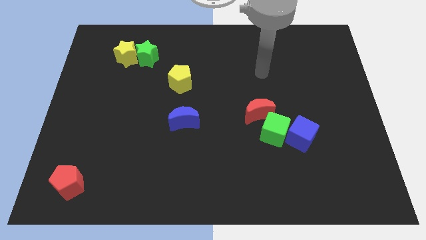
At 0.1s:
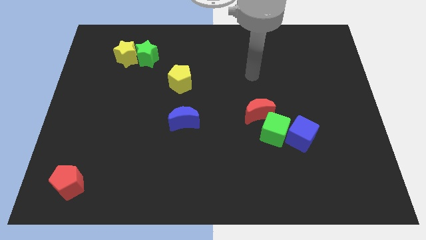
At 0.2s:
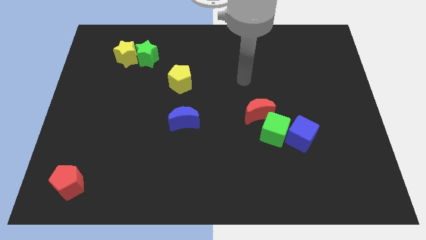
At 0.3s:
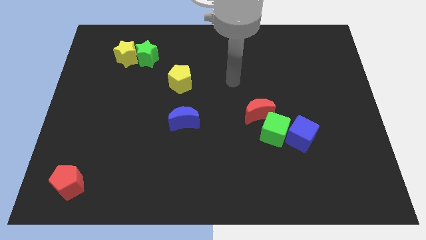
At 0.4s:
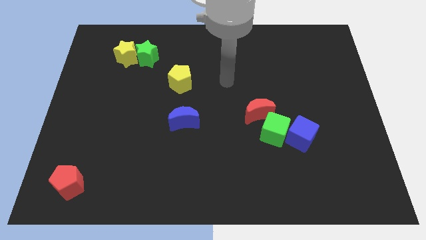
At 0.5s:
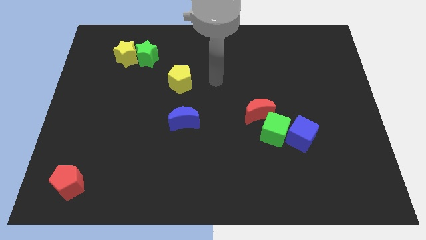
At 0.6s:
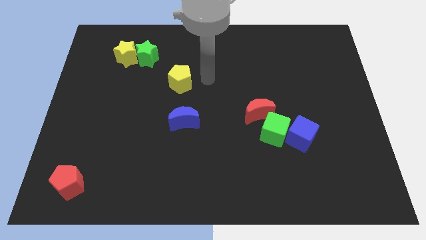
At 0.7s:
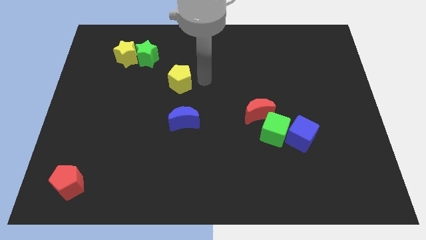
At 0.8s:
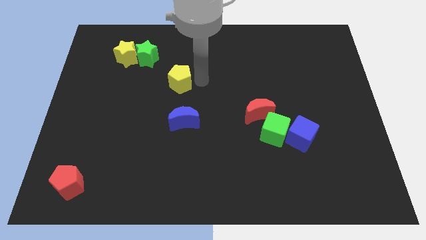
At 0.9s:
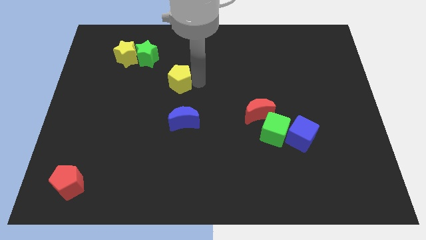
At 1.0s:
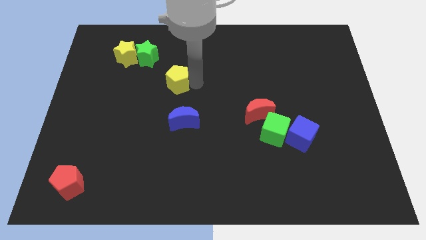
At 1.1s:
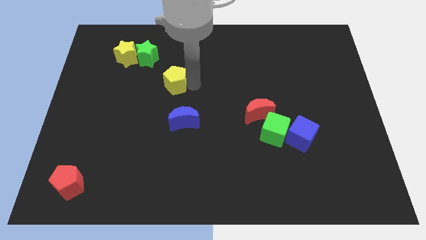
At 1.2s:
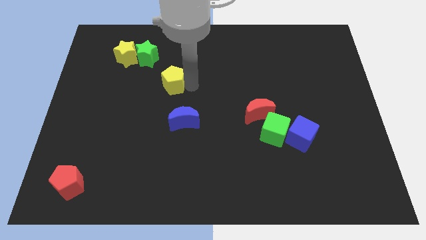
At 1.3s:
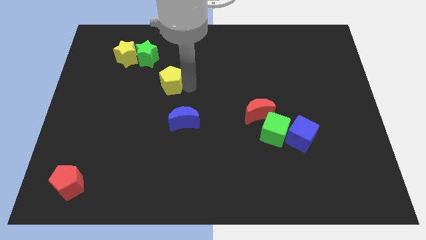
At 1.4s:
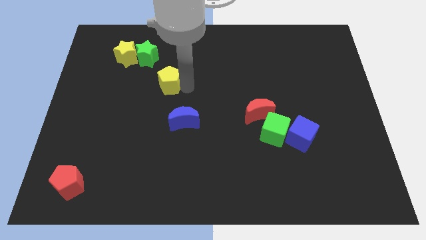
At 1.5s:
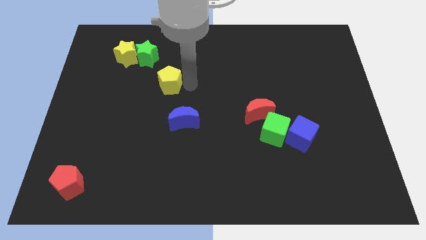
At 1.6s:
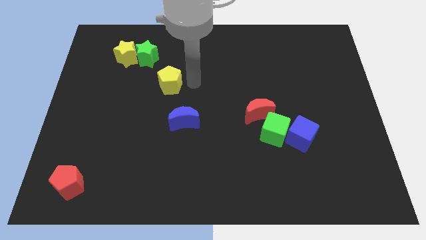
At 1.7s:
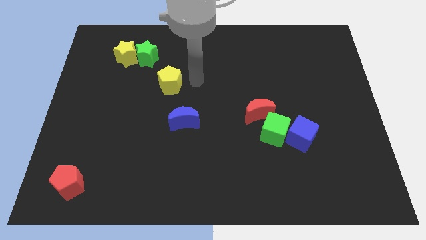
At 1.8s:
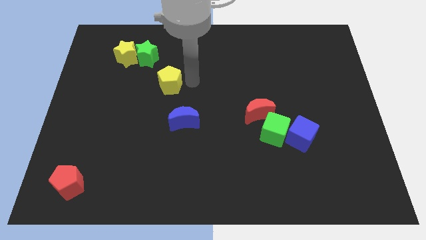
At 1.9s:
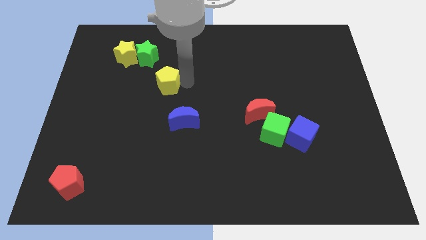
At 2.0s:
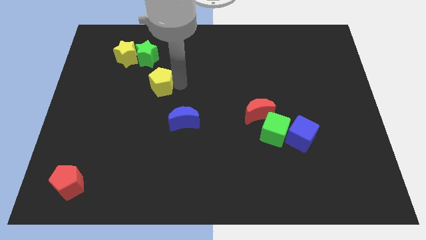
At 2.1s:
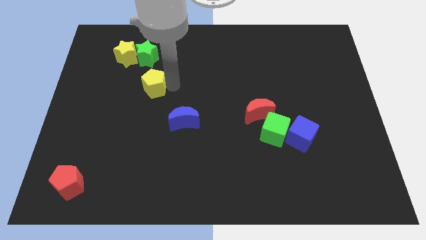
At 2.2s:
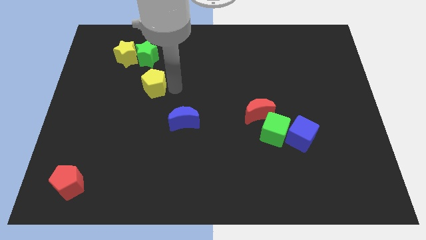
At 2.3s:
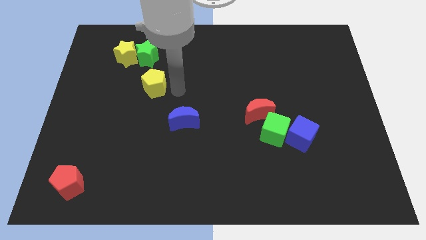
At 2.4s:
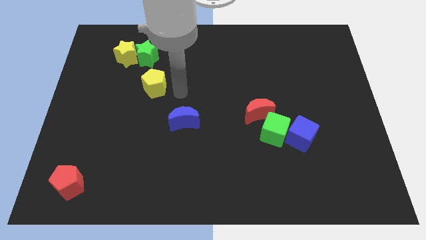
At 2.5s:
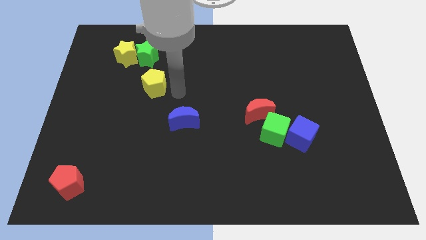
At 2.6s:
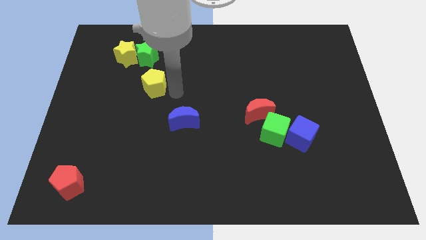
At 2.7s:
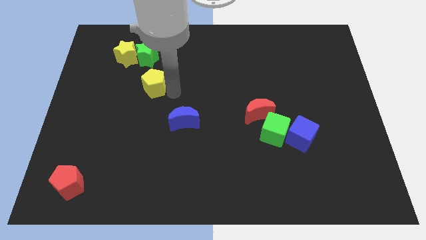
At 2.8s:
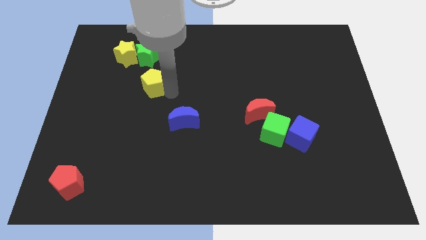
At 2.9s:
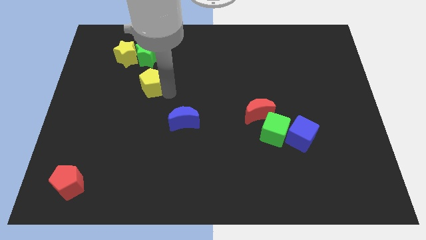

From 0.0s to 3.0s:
slightly push the yellow pentagon left

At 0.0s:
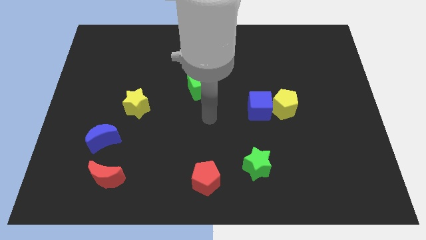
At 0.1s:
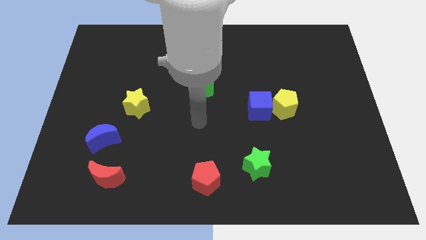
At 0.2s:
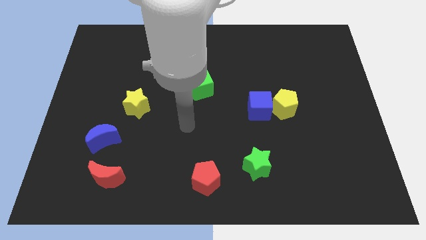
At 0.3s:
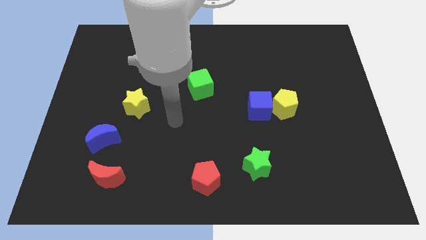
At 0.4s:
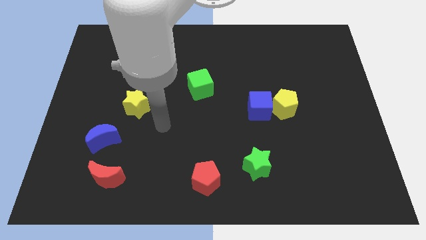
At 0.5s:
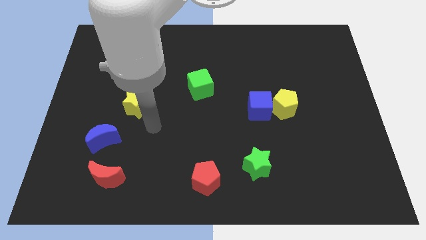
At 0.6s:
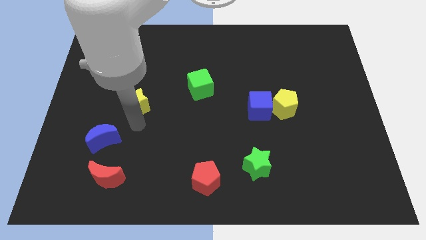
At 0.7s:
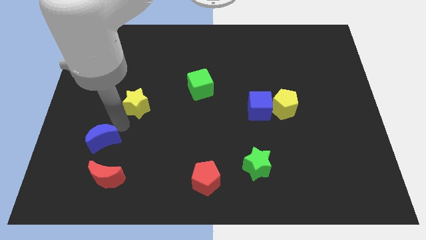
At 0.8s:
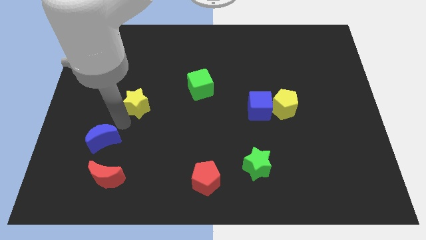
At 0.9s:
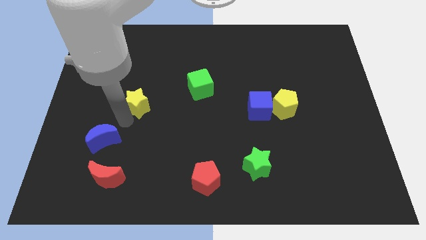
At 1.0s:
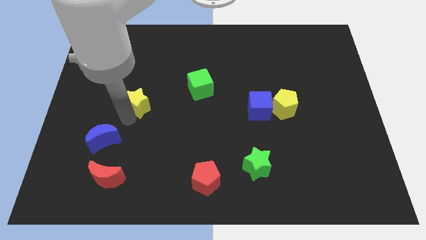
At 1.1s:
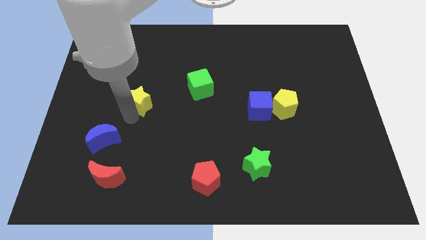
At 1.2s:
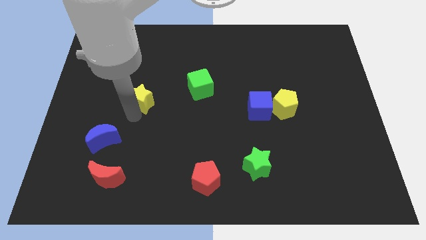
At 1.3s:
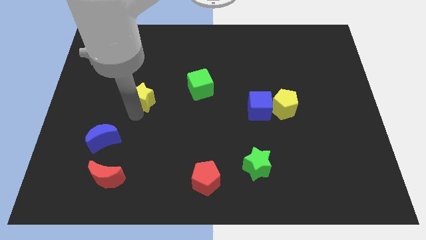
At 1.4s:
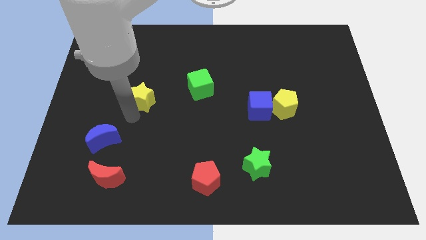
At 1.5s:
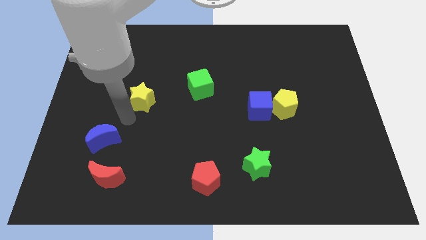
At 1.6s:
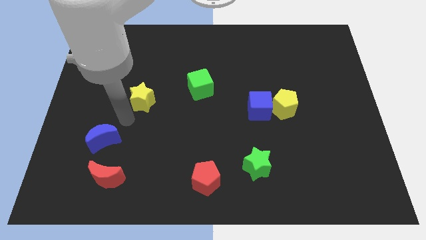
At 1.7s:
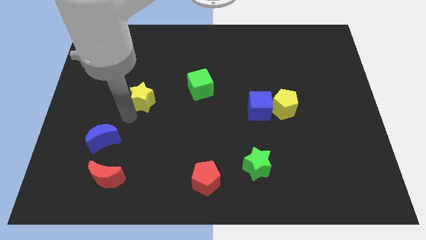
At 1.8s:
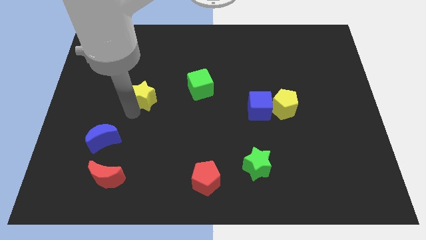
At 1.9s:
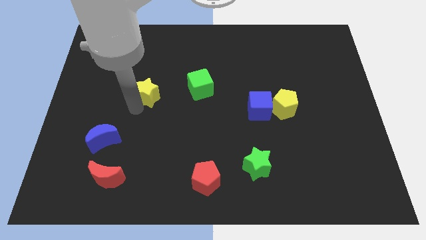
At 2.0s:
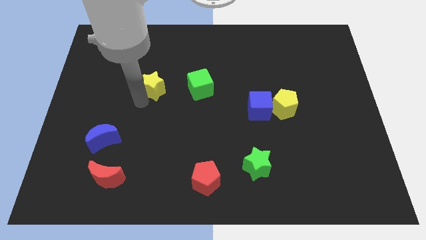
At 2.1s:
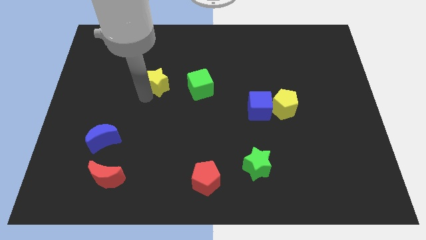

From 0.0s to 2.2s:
push the yellow star upwards and to the right diagonally a little bit

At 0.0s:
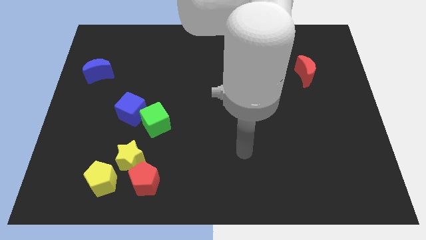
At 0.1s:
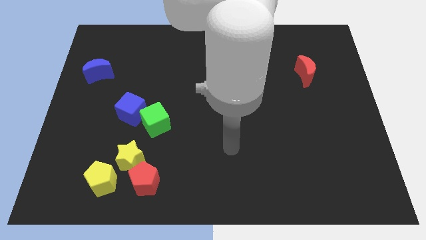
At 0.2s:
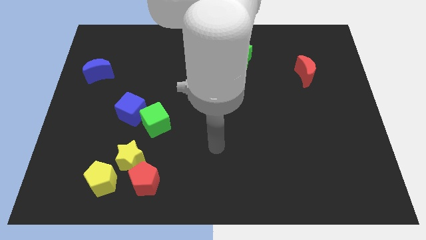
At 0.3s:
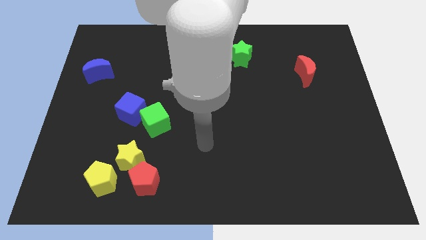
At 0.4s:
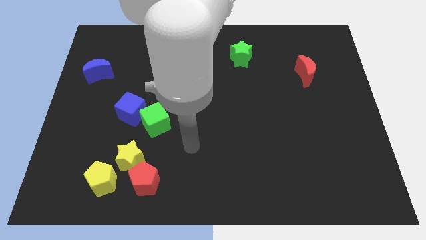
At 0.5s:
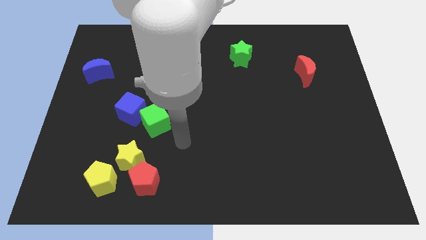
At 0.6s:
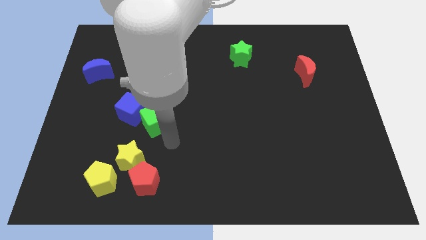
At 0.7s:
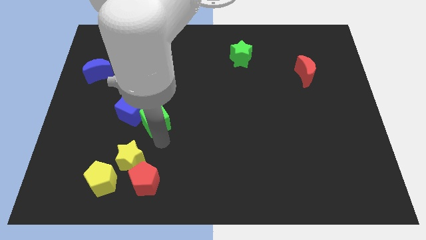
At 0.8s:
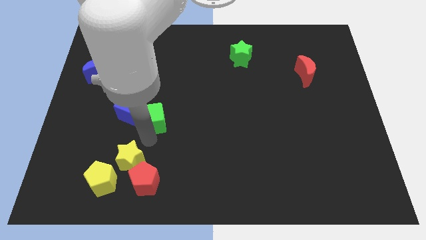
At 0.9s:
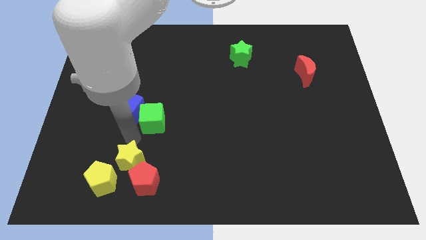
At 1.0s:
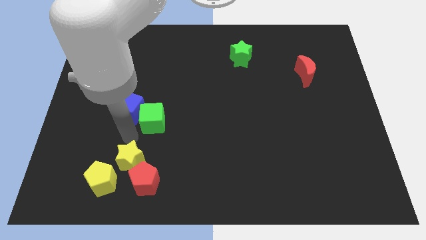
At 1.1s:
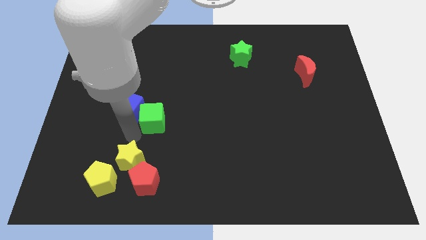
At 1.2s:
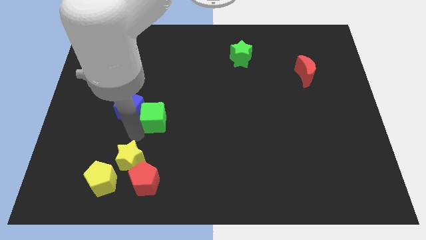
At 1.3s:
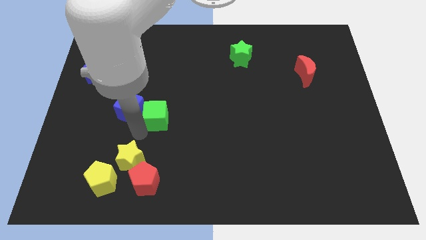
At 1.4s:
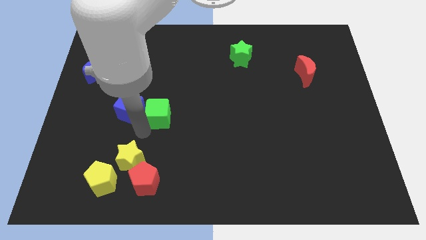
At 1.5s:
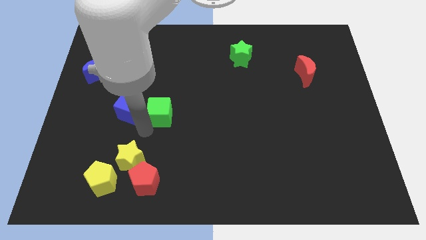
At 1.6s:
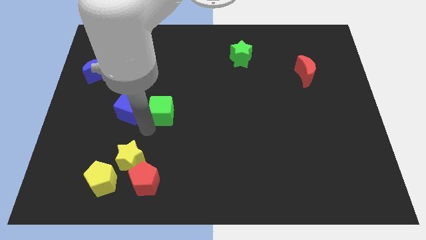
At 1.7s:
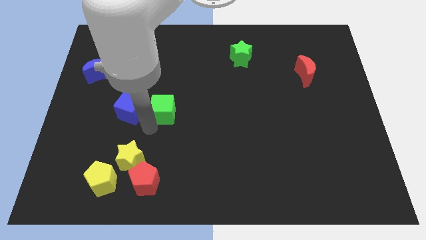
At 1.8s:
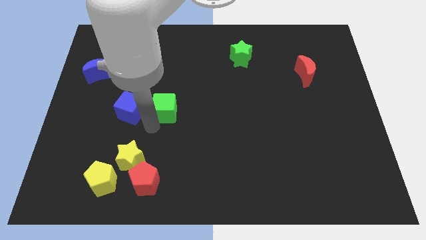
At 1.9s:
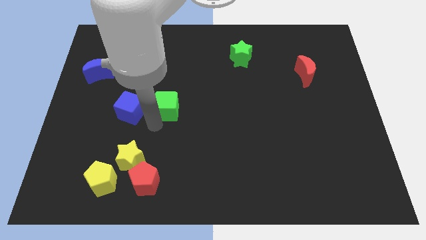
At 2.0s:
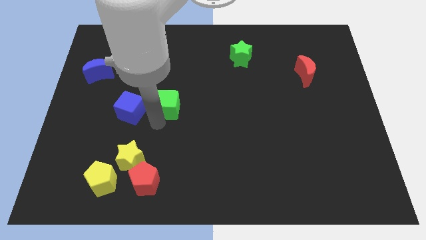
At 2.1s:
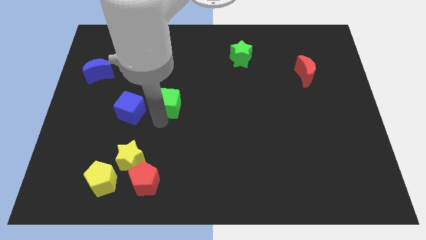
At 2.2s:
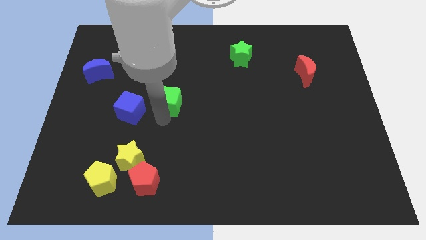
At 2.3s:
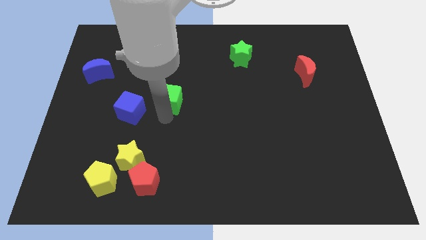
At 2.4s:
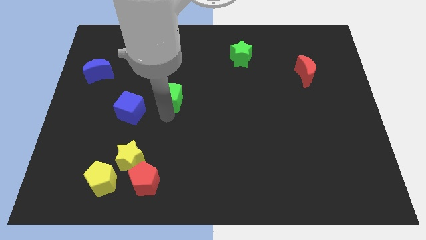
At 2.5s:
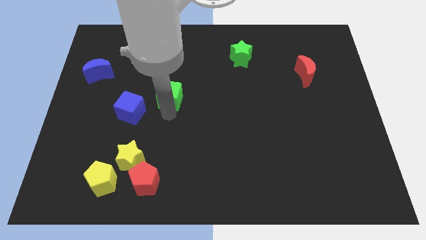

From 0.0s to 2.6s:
slightly move the green cube up and right diagonally

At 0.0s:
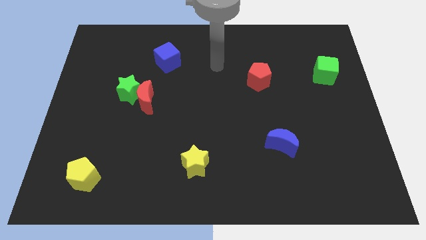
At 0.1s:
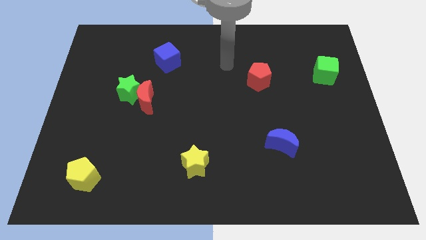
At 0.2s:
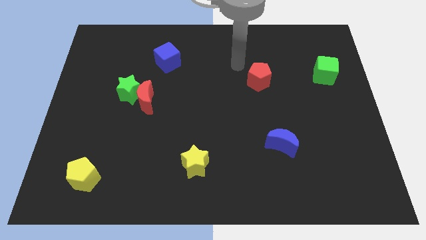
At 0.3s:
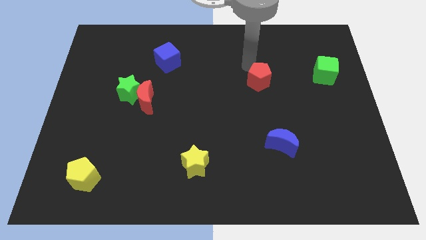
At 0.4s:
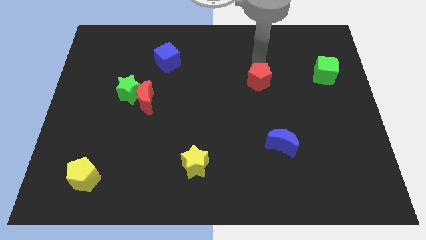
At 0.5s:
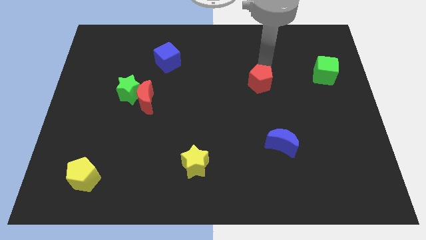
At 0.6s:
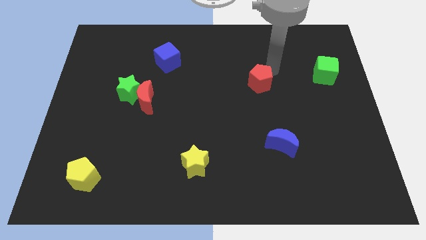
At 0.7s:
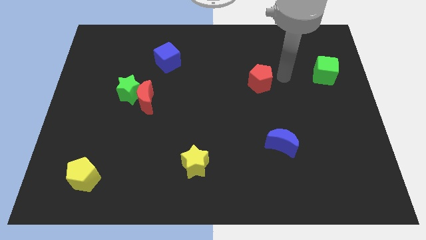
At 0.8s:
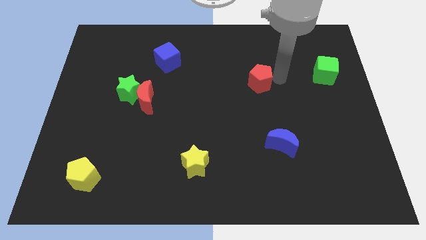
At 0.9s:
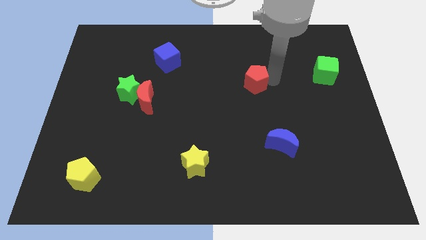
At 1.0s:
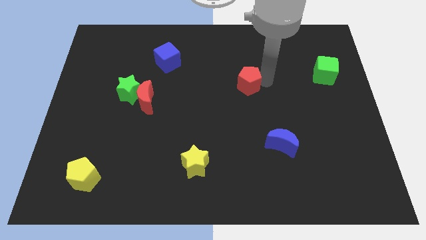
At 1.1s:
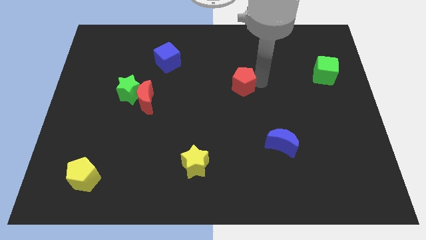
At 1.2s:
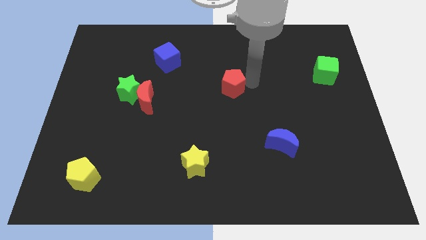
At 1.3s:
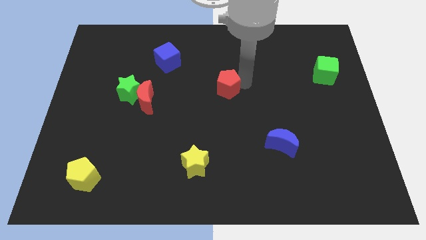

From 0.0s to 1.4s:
slightly push the red pentagon down and to the left diagonally
